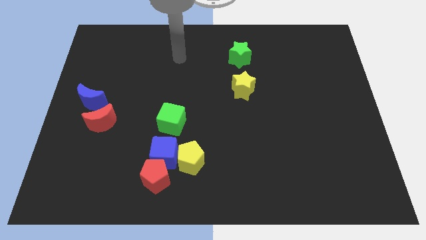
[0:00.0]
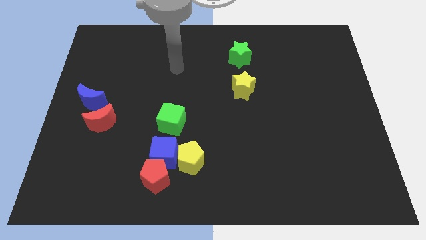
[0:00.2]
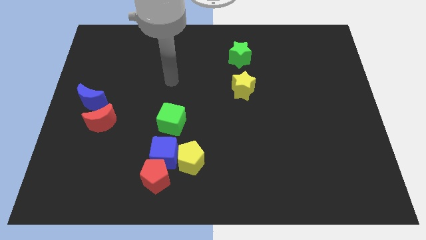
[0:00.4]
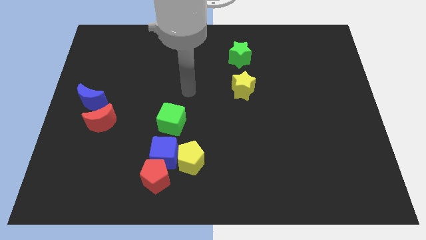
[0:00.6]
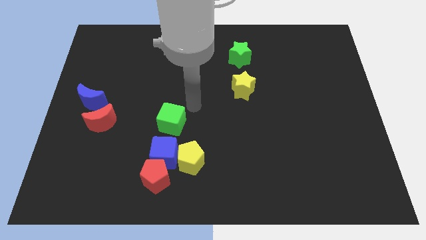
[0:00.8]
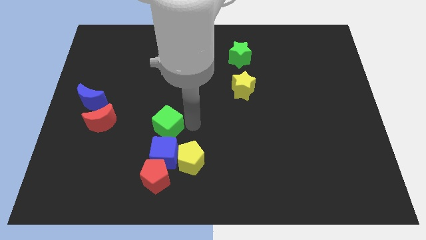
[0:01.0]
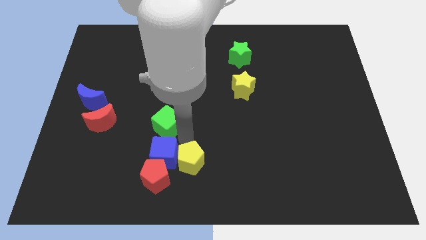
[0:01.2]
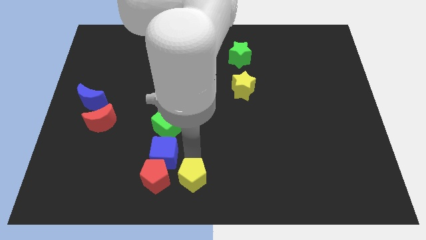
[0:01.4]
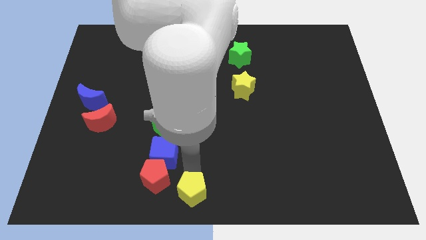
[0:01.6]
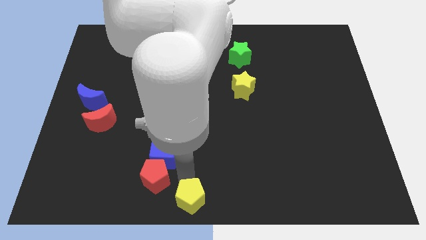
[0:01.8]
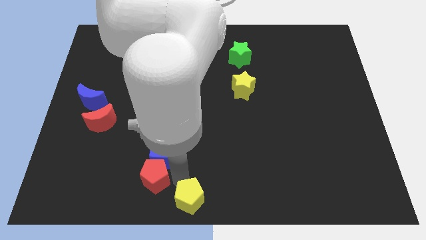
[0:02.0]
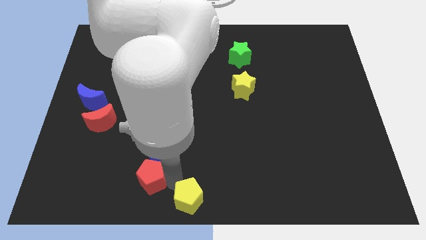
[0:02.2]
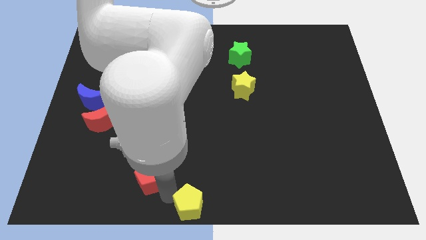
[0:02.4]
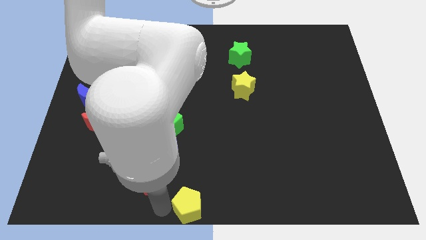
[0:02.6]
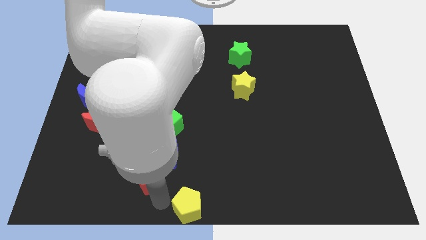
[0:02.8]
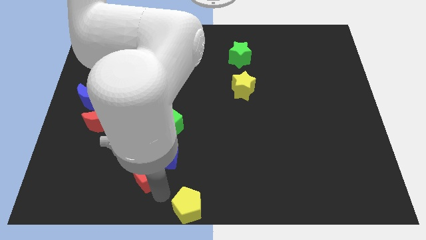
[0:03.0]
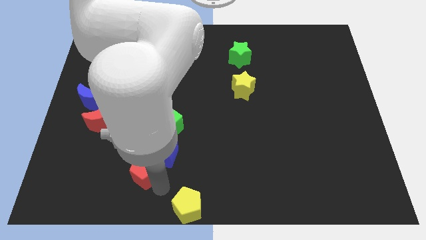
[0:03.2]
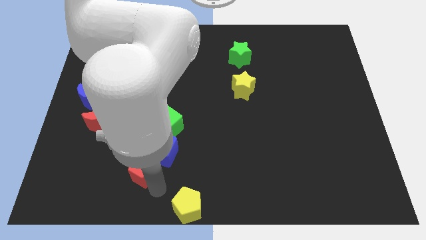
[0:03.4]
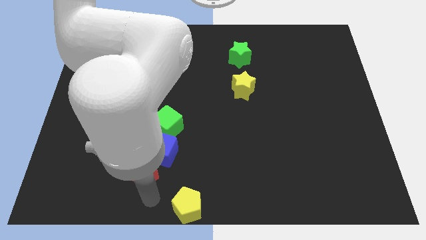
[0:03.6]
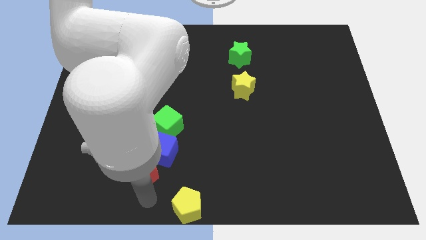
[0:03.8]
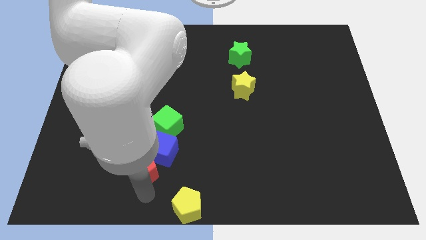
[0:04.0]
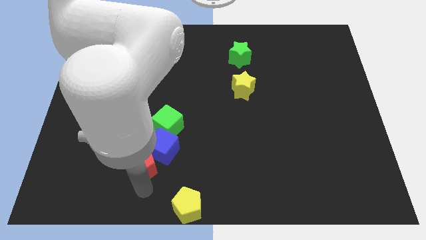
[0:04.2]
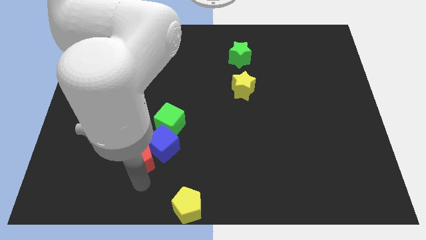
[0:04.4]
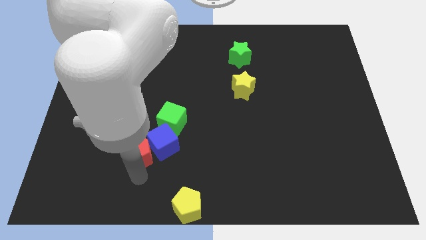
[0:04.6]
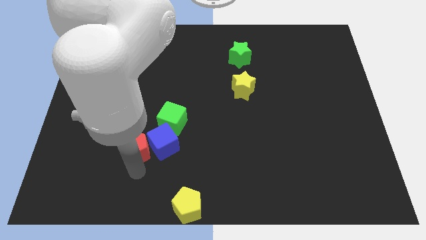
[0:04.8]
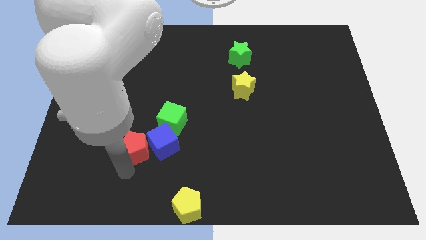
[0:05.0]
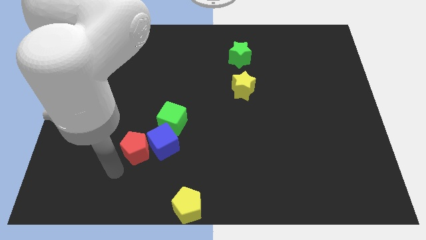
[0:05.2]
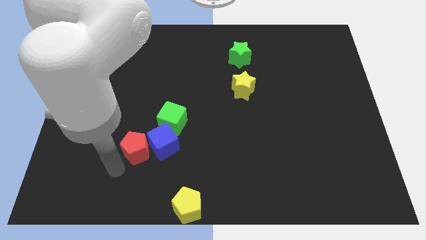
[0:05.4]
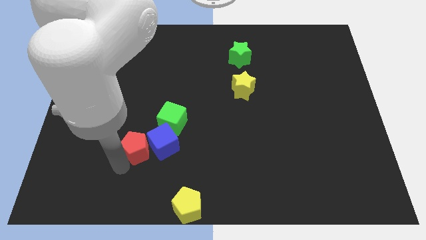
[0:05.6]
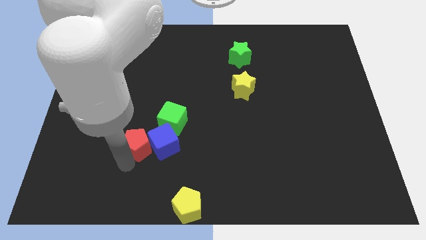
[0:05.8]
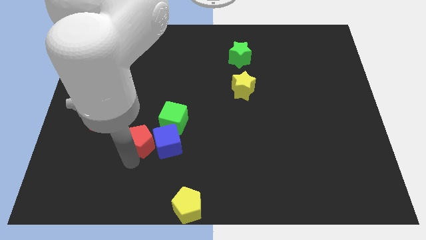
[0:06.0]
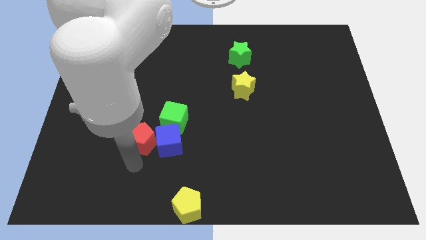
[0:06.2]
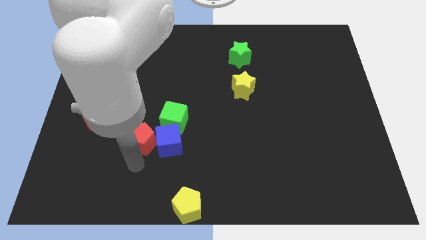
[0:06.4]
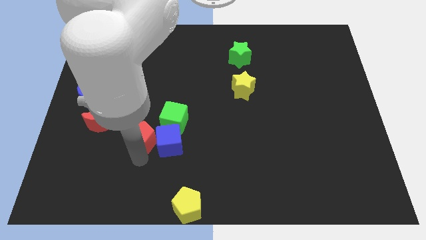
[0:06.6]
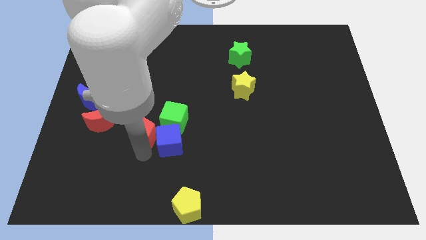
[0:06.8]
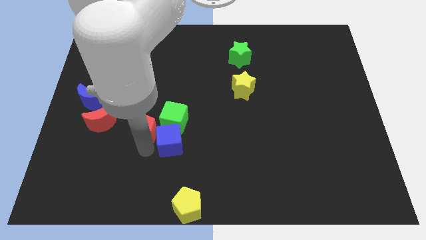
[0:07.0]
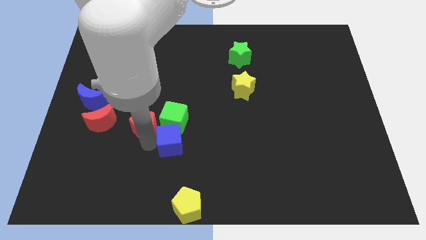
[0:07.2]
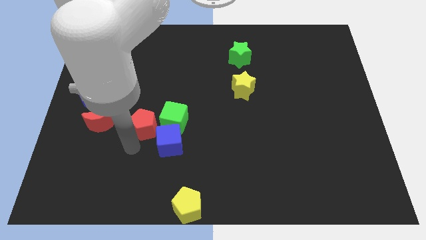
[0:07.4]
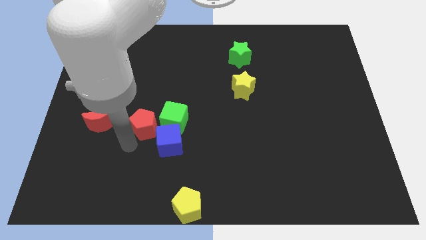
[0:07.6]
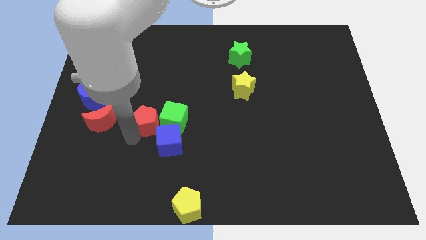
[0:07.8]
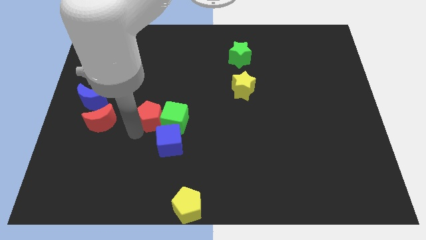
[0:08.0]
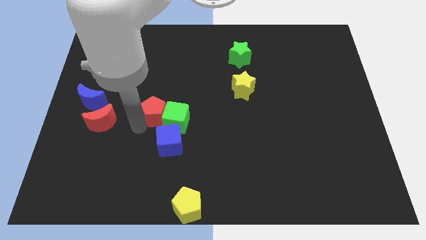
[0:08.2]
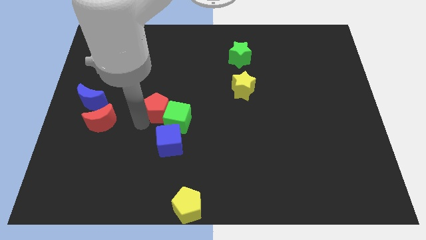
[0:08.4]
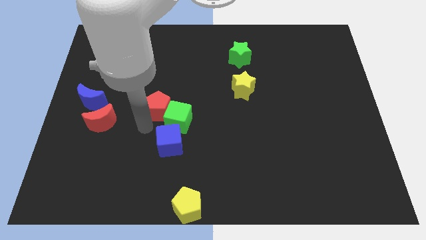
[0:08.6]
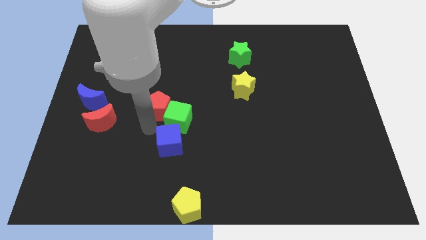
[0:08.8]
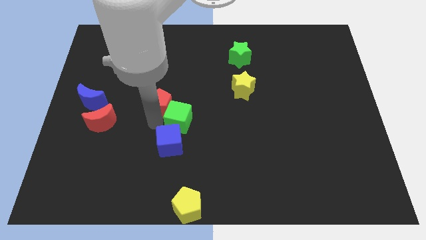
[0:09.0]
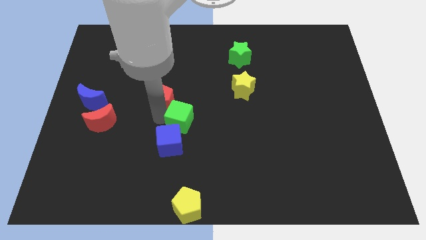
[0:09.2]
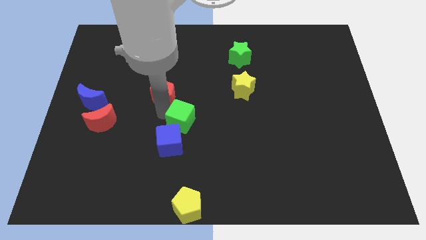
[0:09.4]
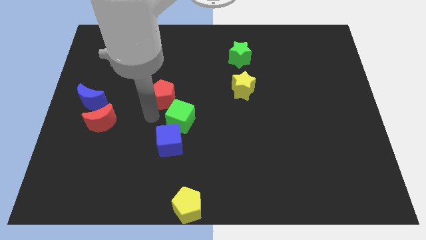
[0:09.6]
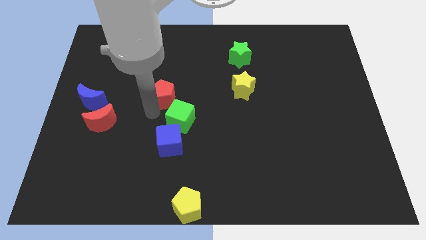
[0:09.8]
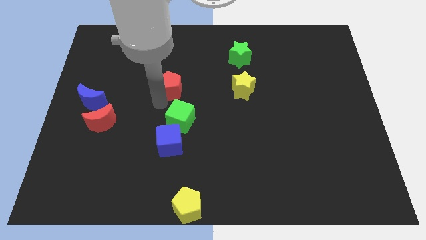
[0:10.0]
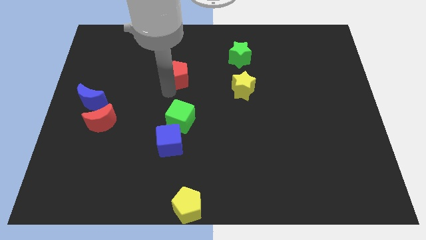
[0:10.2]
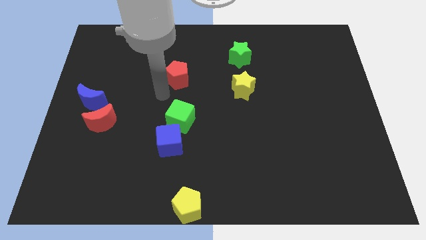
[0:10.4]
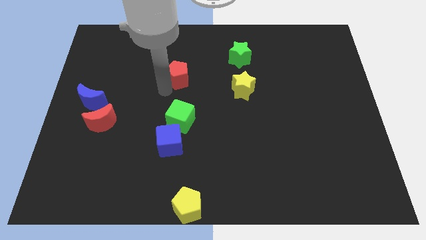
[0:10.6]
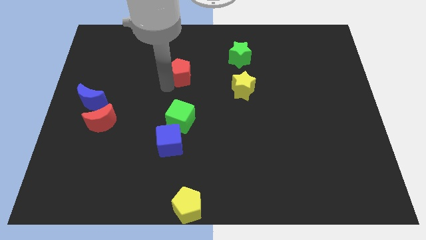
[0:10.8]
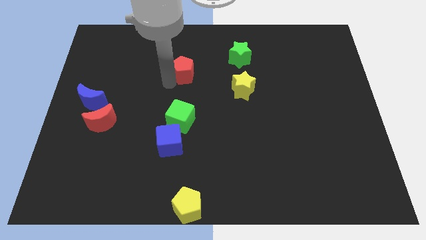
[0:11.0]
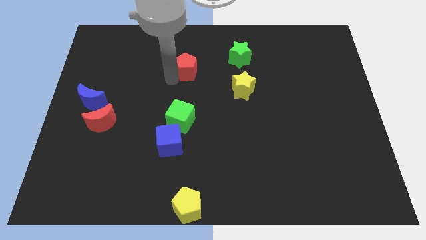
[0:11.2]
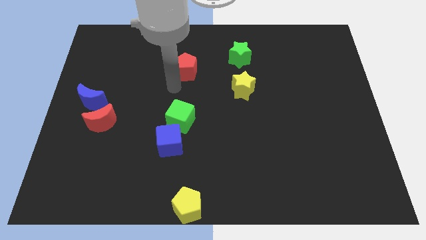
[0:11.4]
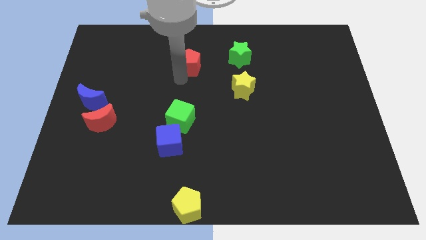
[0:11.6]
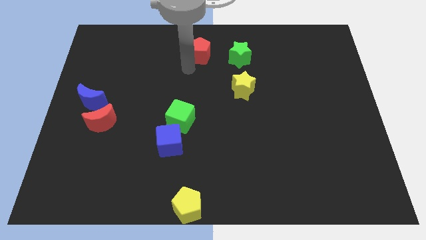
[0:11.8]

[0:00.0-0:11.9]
push the red pentagon to the towards your base
